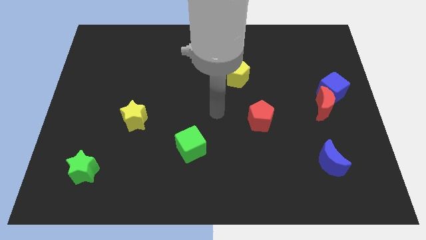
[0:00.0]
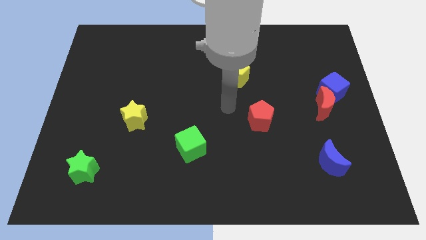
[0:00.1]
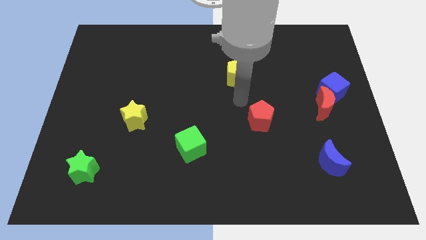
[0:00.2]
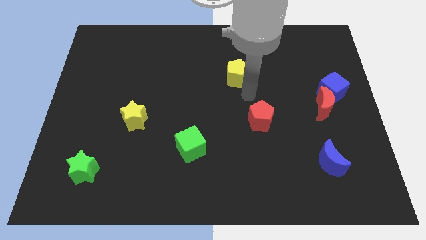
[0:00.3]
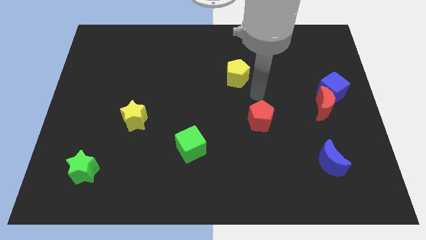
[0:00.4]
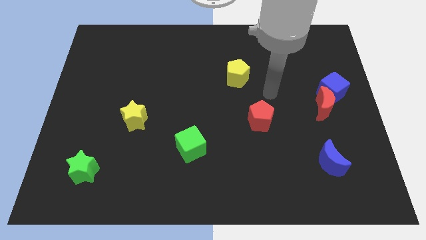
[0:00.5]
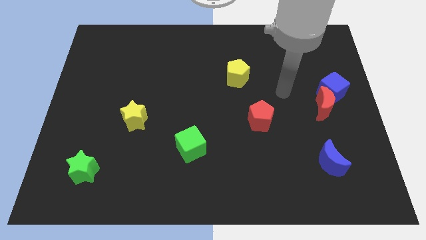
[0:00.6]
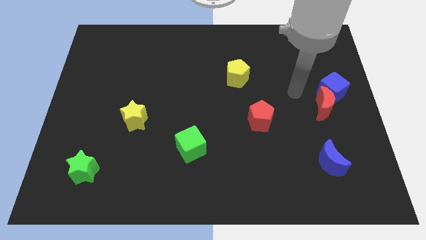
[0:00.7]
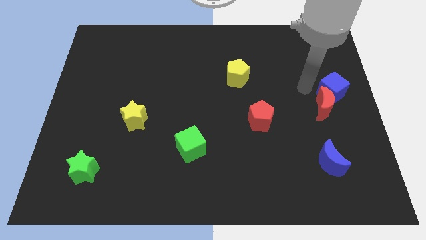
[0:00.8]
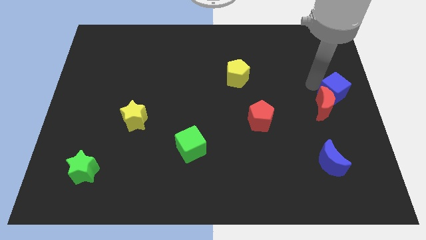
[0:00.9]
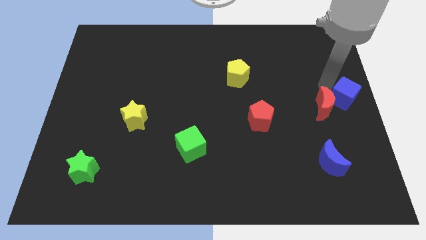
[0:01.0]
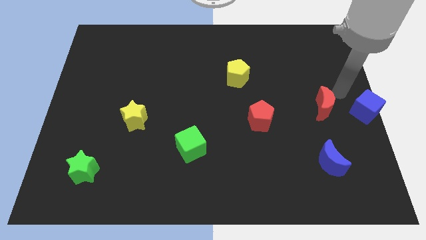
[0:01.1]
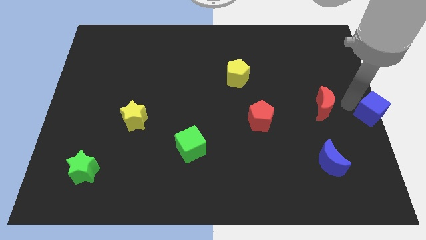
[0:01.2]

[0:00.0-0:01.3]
separate the red moon from the blue cube

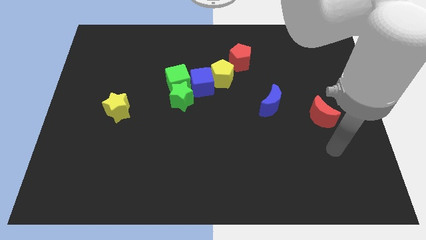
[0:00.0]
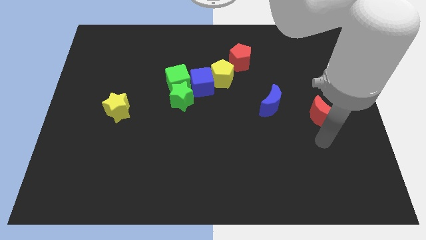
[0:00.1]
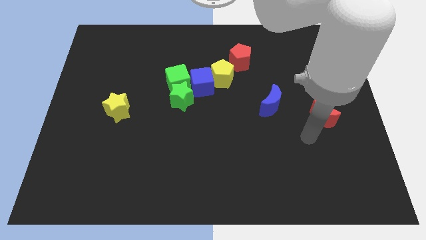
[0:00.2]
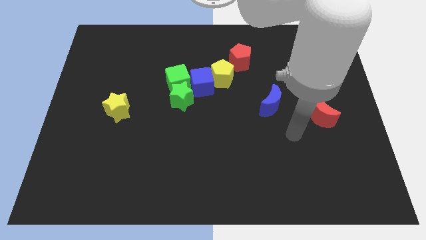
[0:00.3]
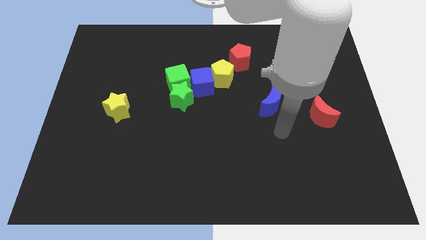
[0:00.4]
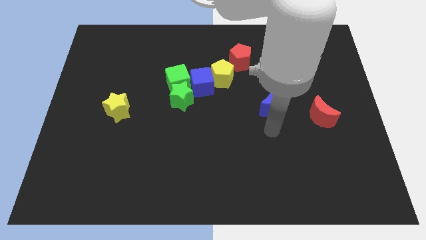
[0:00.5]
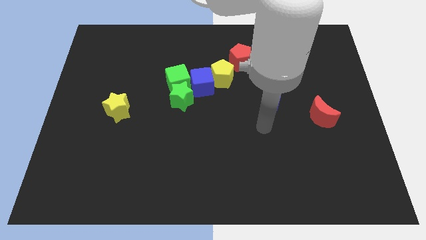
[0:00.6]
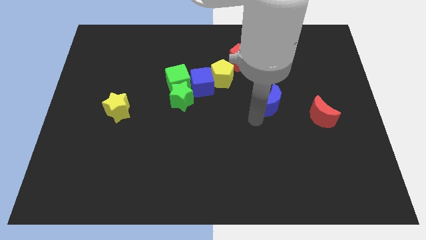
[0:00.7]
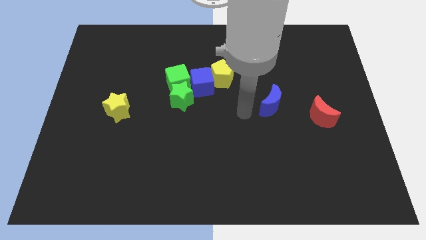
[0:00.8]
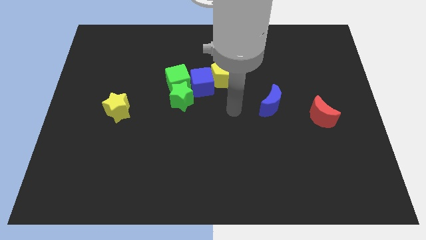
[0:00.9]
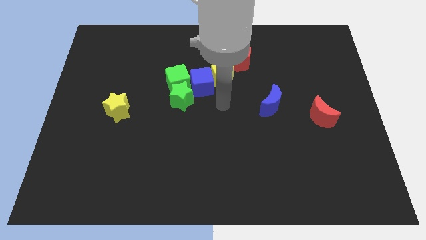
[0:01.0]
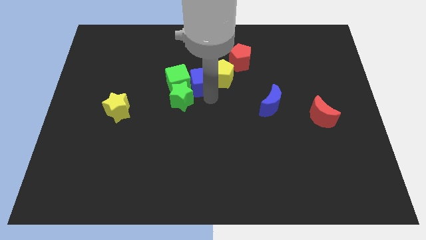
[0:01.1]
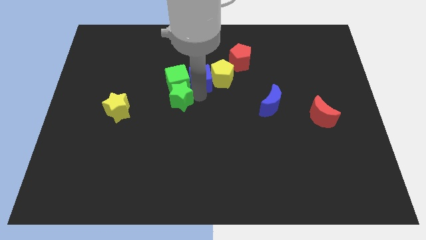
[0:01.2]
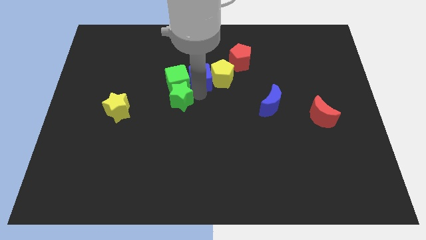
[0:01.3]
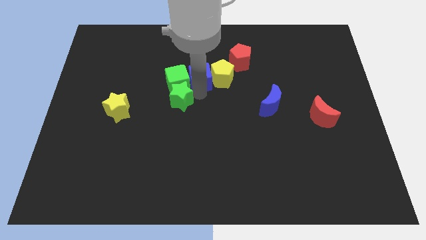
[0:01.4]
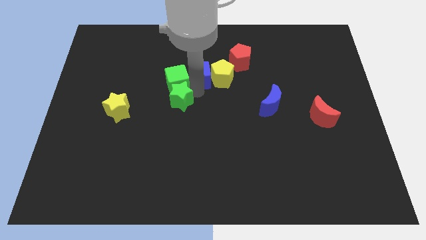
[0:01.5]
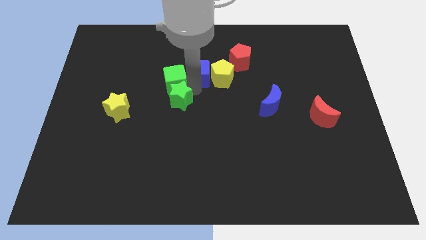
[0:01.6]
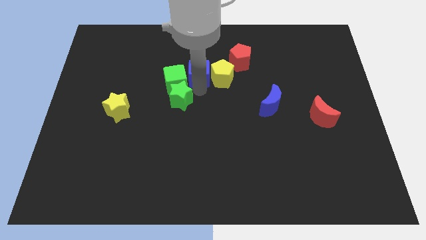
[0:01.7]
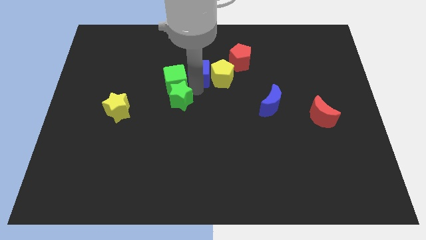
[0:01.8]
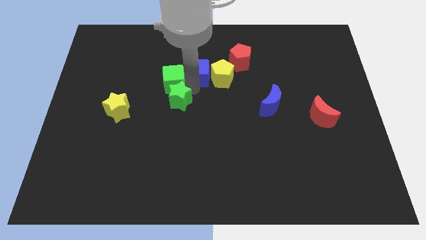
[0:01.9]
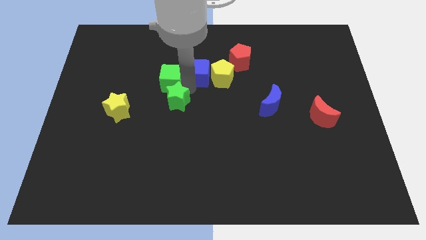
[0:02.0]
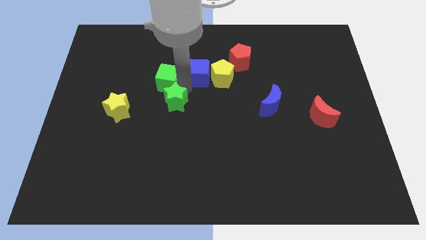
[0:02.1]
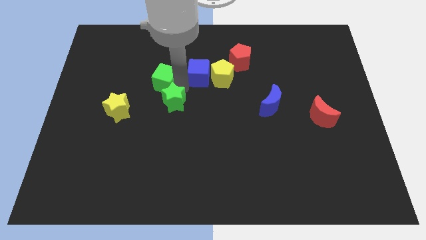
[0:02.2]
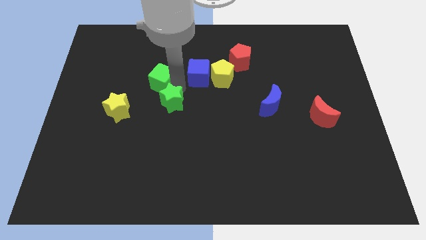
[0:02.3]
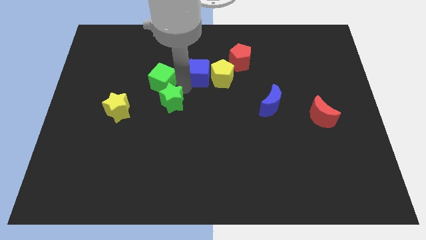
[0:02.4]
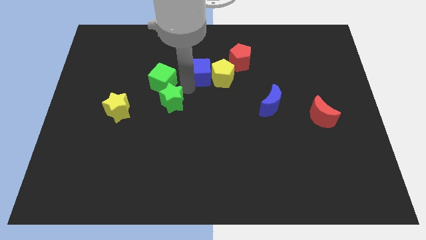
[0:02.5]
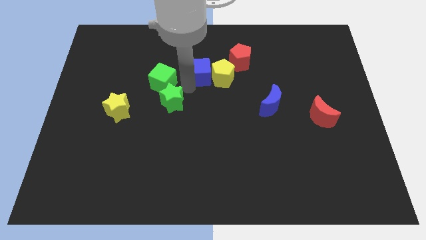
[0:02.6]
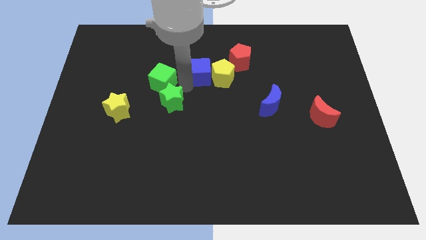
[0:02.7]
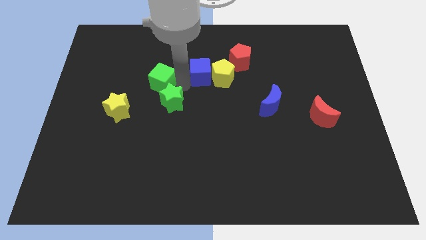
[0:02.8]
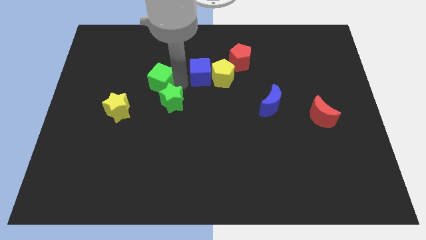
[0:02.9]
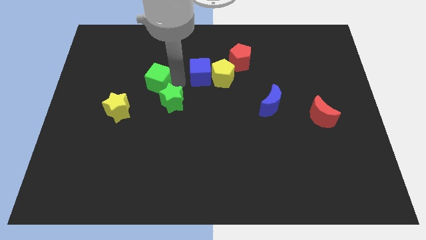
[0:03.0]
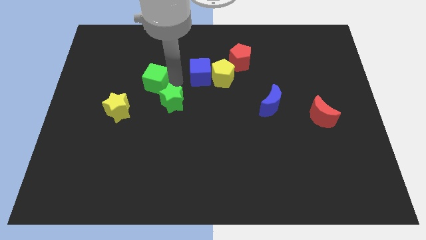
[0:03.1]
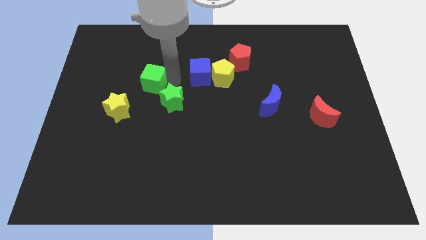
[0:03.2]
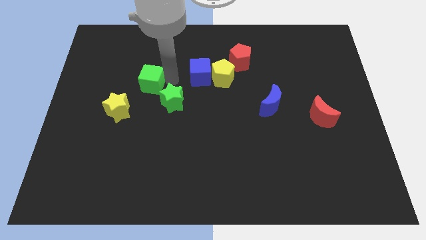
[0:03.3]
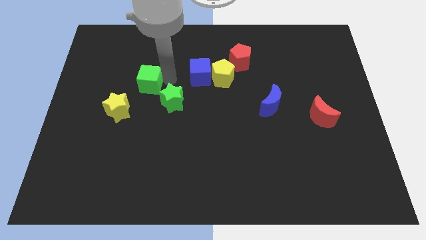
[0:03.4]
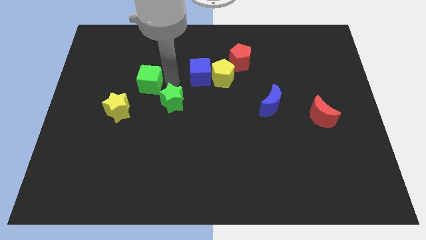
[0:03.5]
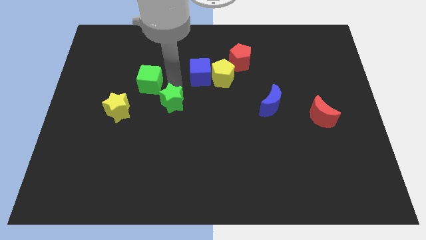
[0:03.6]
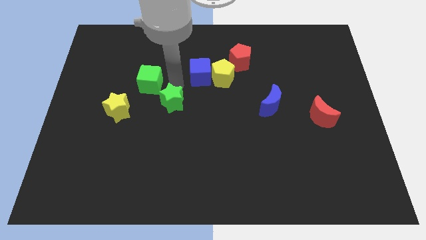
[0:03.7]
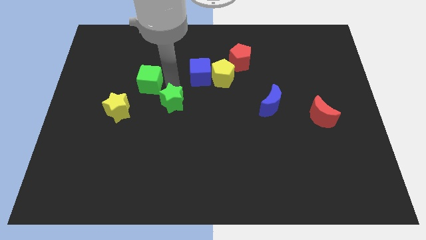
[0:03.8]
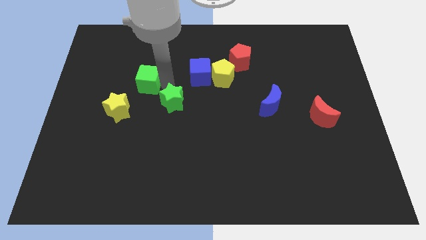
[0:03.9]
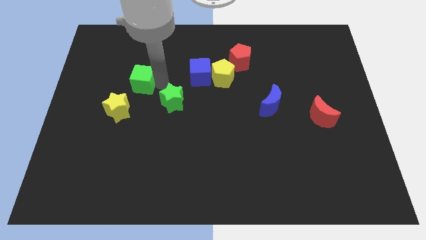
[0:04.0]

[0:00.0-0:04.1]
pull the green cube apart from the green star and blue cube

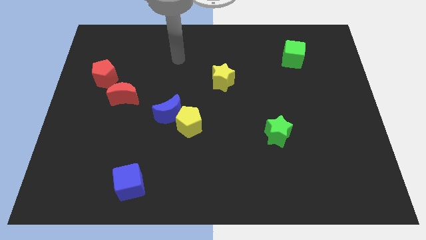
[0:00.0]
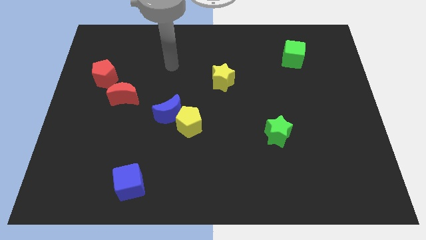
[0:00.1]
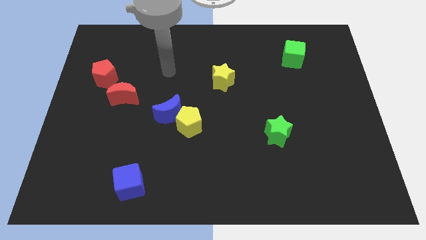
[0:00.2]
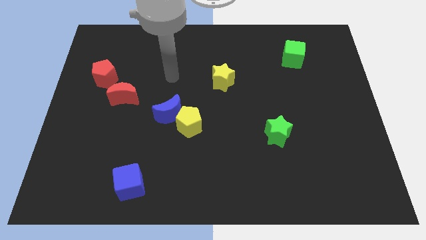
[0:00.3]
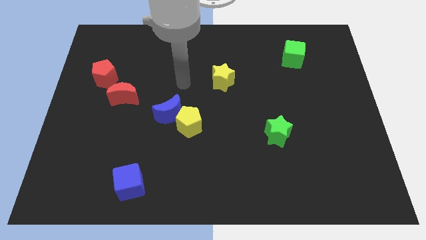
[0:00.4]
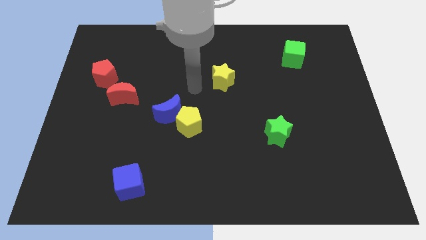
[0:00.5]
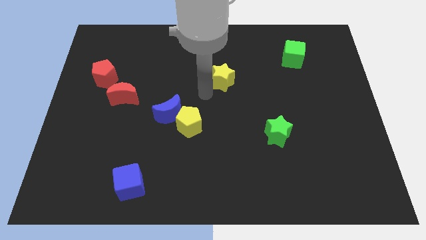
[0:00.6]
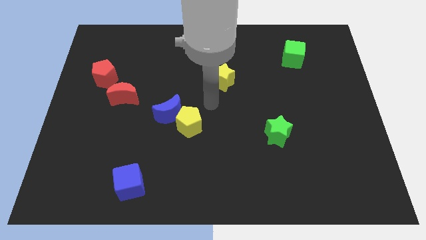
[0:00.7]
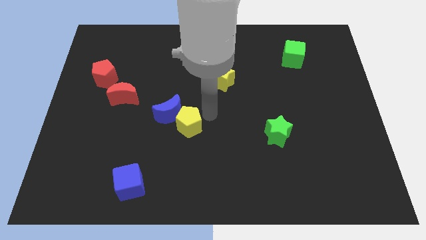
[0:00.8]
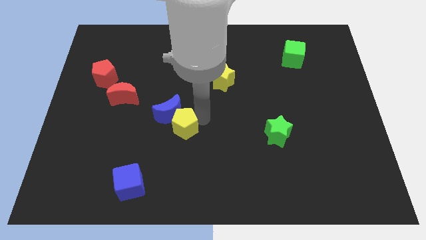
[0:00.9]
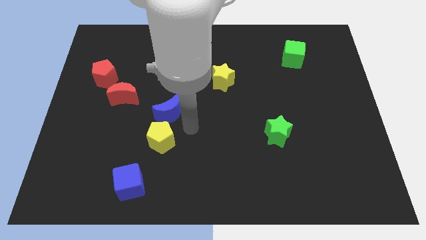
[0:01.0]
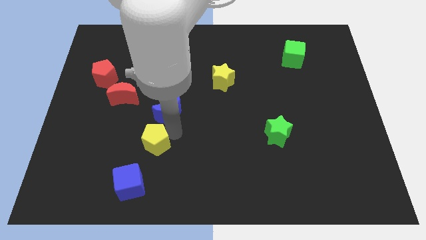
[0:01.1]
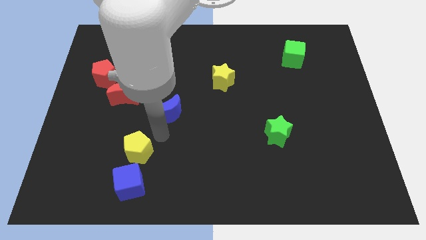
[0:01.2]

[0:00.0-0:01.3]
separate the blue moon from the yellow pentagon

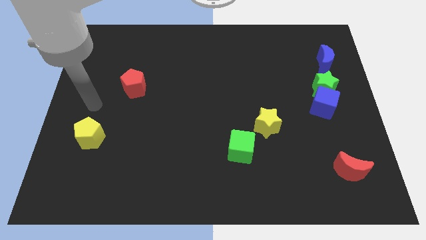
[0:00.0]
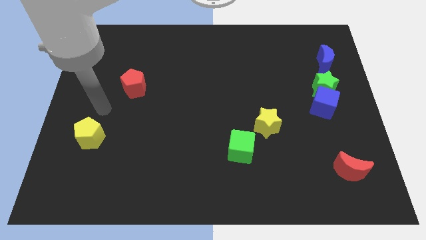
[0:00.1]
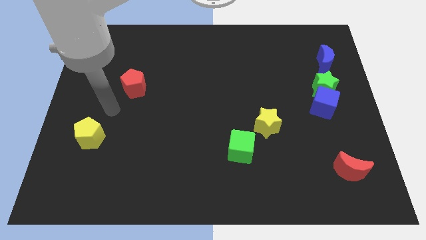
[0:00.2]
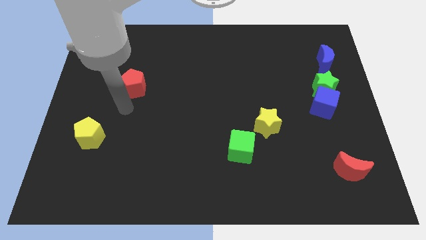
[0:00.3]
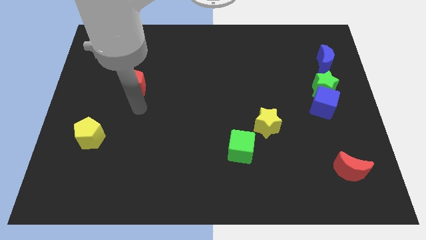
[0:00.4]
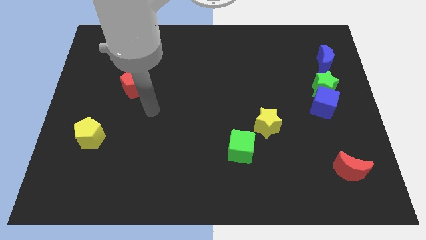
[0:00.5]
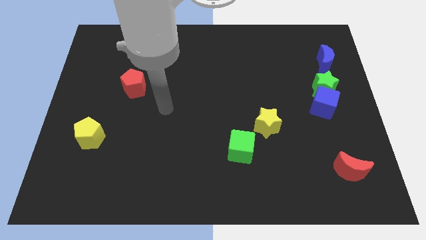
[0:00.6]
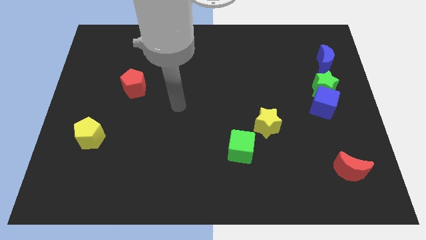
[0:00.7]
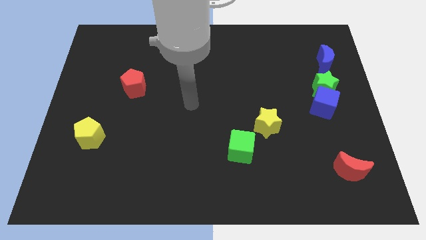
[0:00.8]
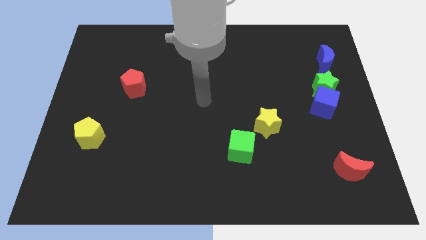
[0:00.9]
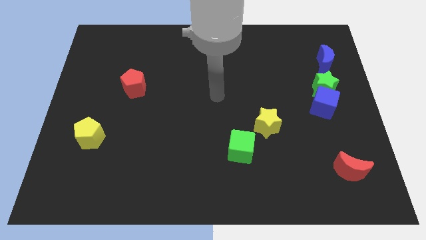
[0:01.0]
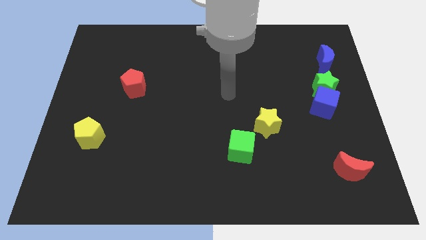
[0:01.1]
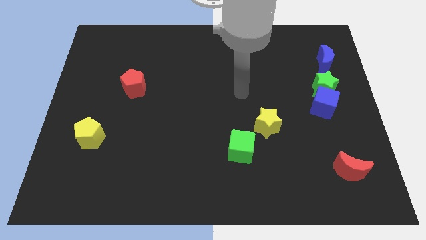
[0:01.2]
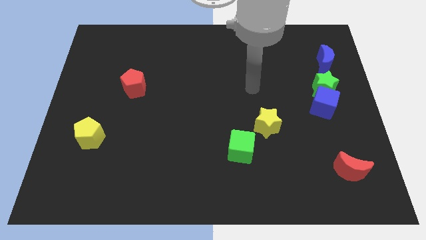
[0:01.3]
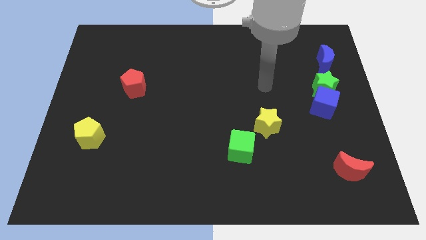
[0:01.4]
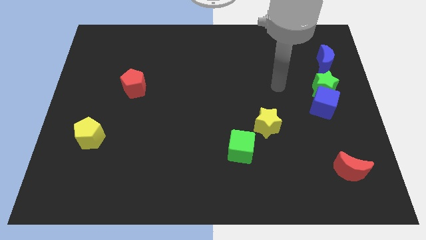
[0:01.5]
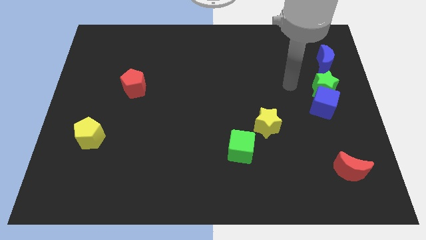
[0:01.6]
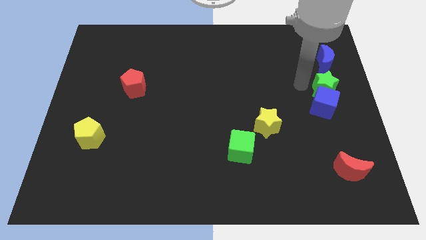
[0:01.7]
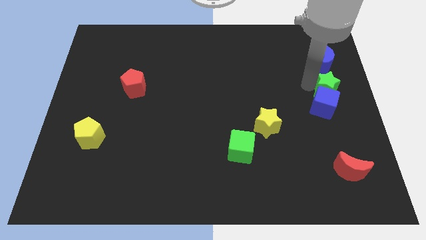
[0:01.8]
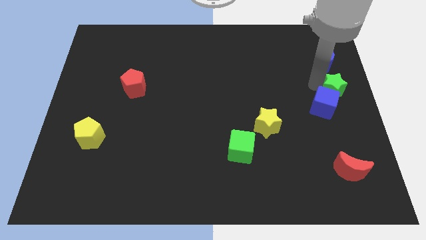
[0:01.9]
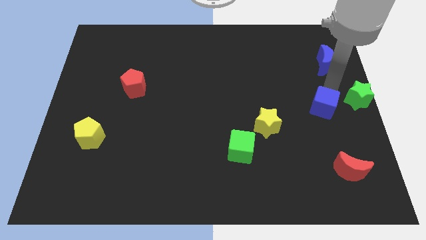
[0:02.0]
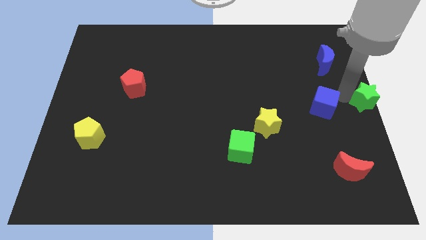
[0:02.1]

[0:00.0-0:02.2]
separate the blue cube from the green star

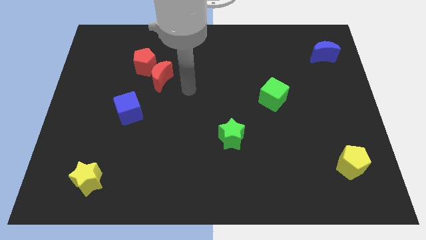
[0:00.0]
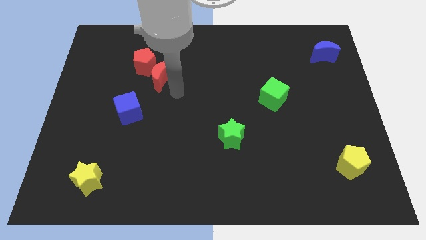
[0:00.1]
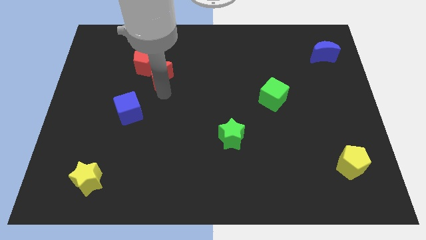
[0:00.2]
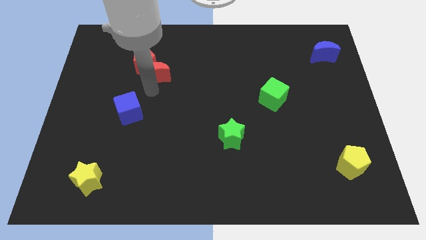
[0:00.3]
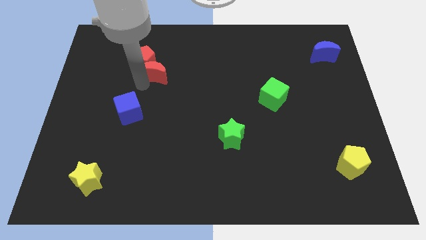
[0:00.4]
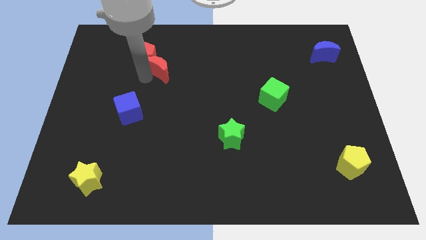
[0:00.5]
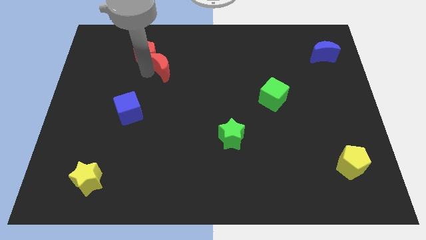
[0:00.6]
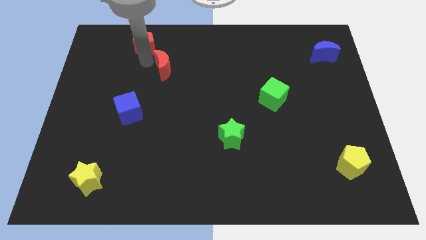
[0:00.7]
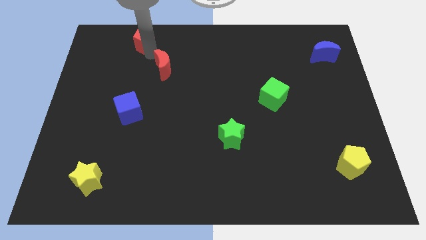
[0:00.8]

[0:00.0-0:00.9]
separate the red moon from the red pentagon
